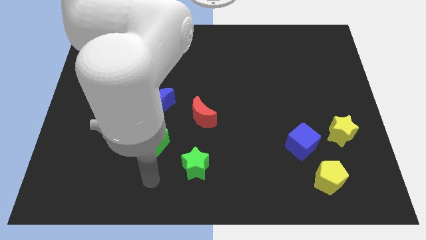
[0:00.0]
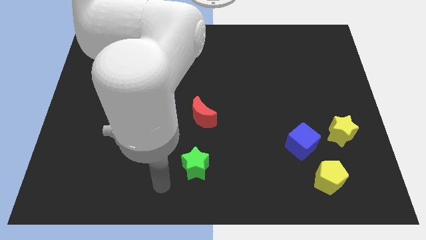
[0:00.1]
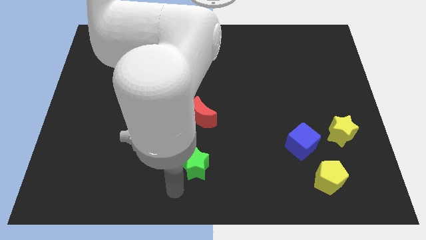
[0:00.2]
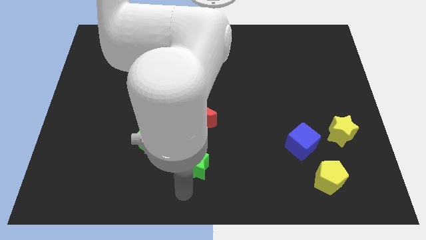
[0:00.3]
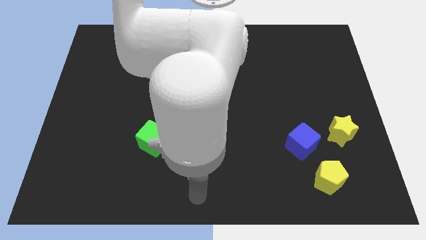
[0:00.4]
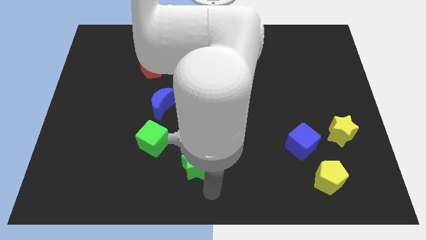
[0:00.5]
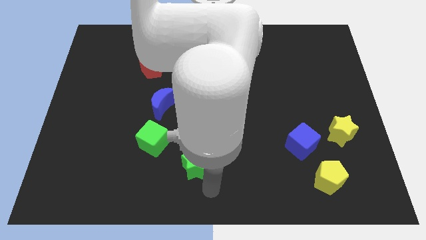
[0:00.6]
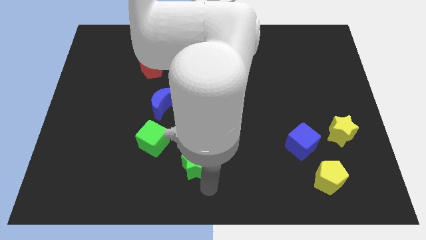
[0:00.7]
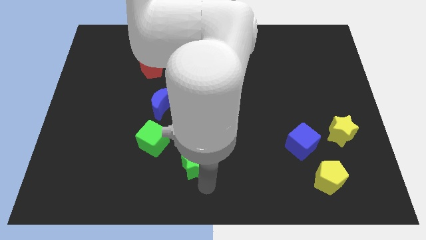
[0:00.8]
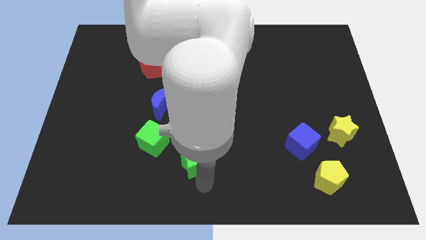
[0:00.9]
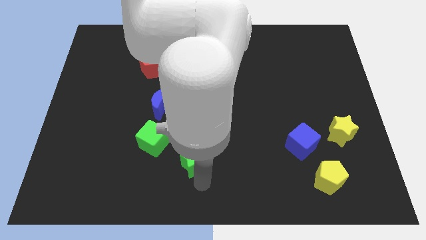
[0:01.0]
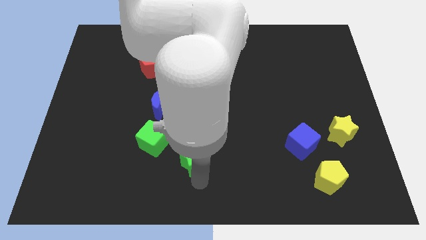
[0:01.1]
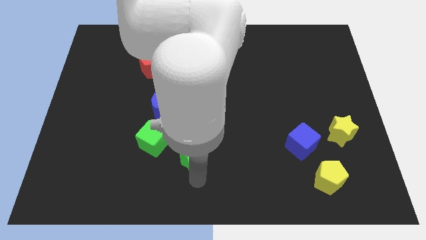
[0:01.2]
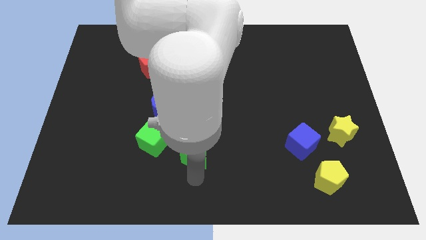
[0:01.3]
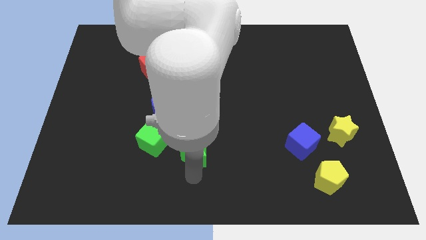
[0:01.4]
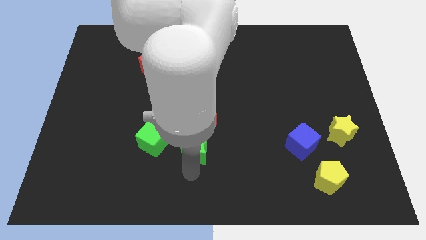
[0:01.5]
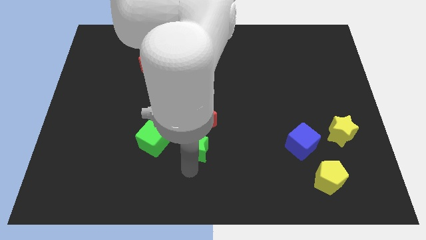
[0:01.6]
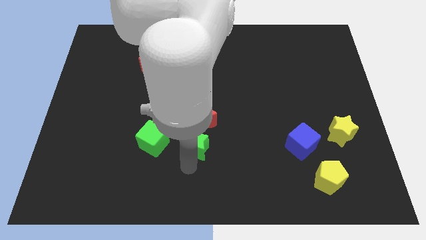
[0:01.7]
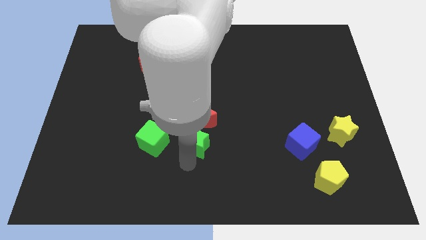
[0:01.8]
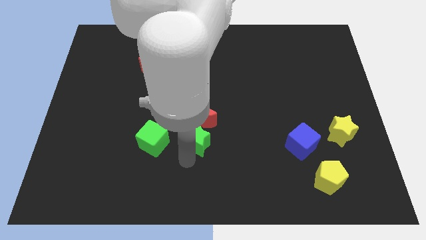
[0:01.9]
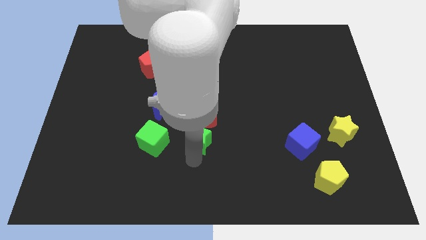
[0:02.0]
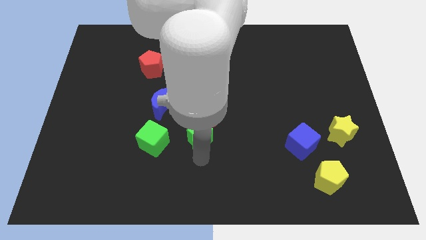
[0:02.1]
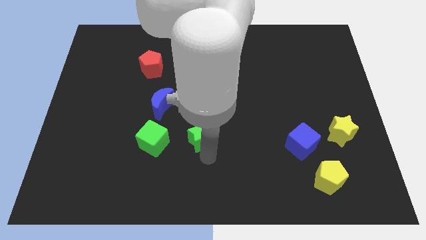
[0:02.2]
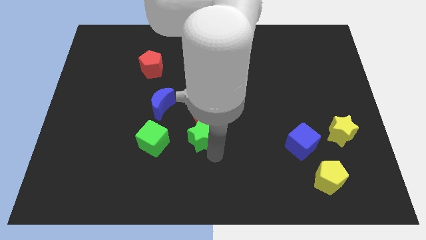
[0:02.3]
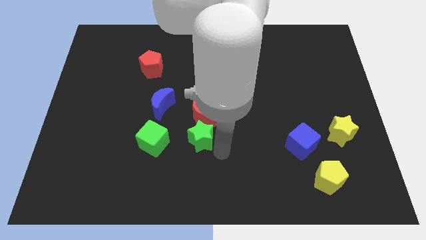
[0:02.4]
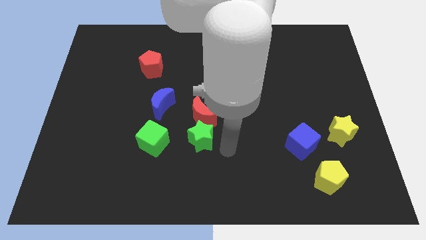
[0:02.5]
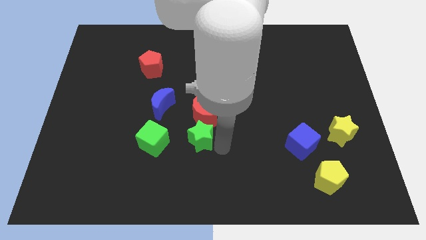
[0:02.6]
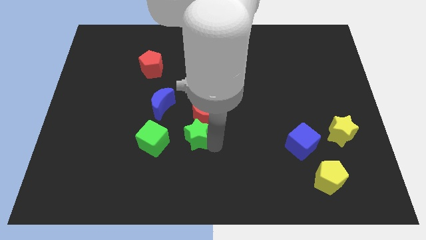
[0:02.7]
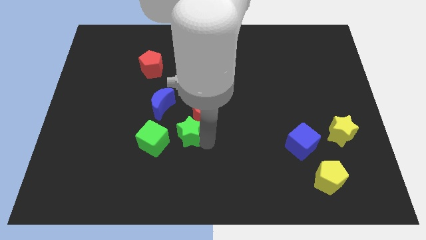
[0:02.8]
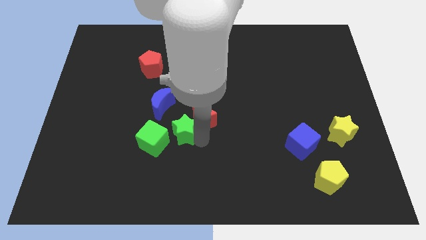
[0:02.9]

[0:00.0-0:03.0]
slightly slide the green star up and then to the left

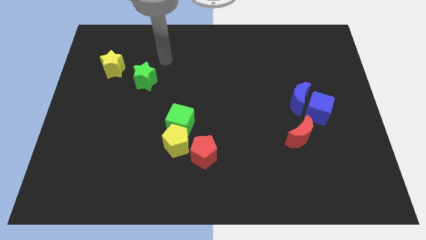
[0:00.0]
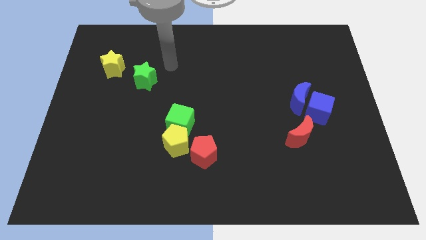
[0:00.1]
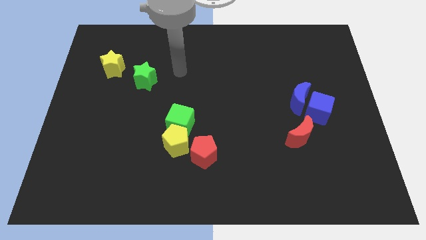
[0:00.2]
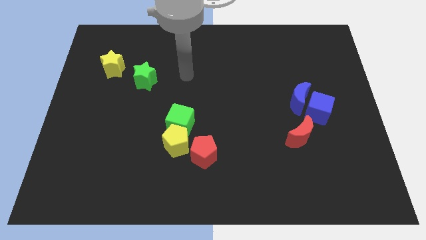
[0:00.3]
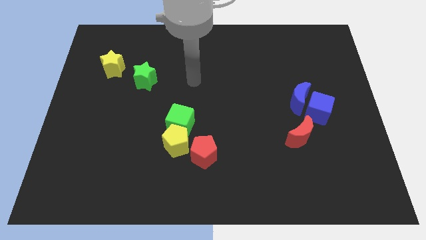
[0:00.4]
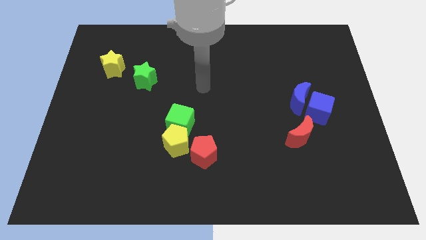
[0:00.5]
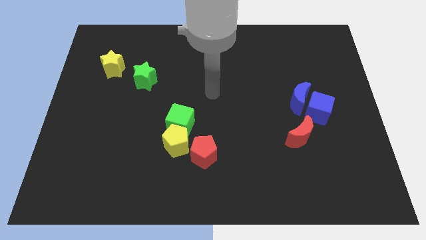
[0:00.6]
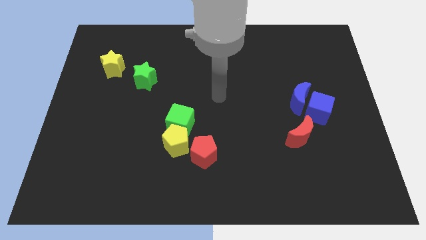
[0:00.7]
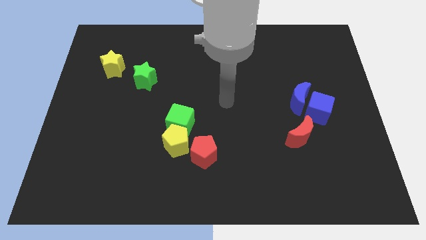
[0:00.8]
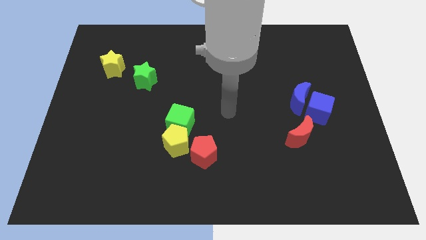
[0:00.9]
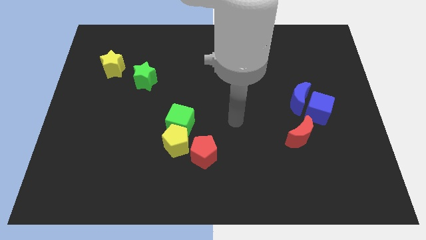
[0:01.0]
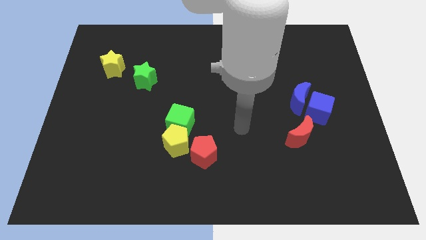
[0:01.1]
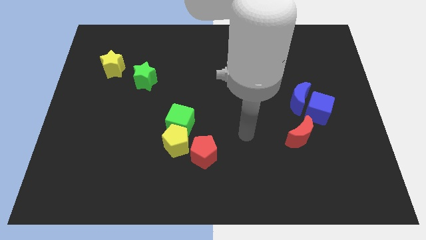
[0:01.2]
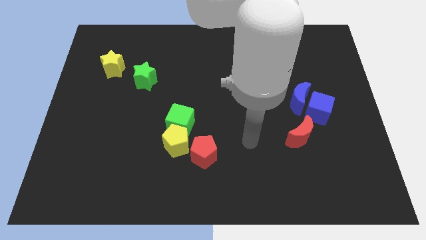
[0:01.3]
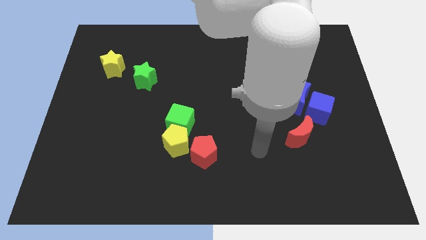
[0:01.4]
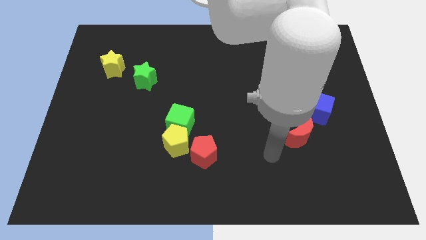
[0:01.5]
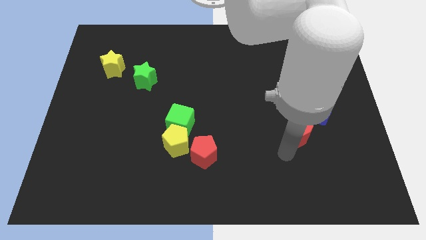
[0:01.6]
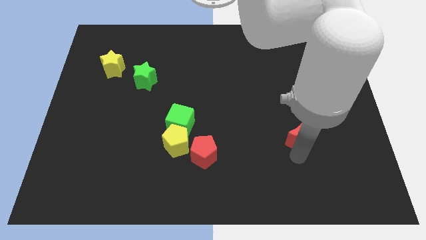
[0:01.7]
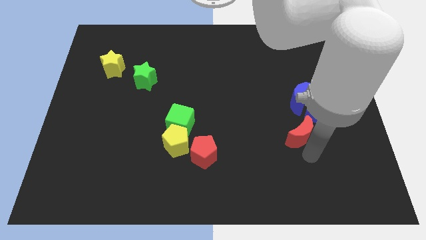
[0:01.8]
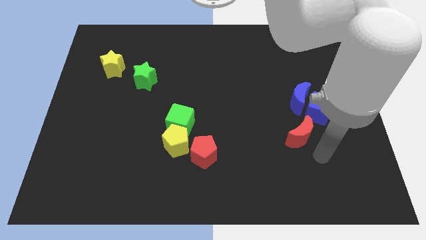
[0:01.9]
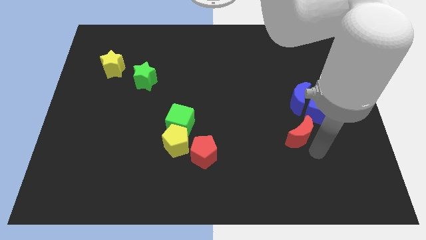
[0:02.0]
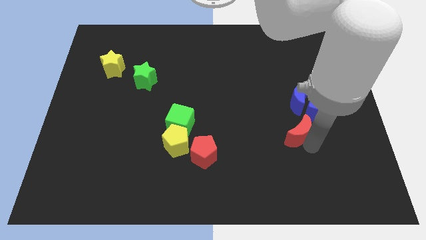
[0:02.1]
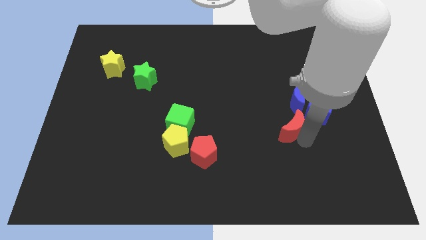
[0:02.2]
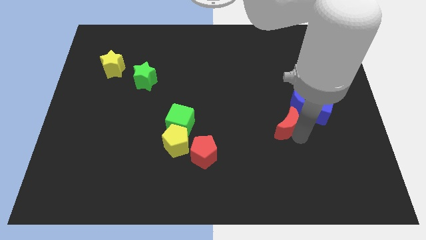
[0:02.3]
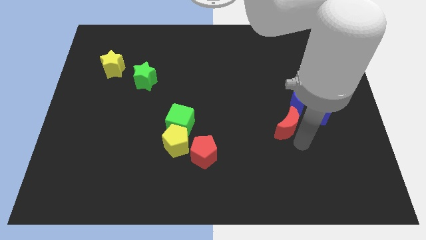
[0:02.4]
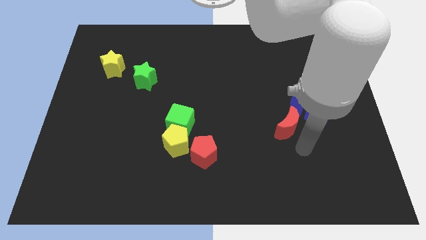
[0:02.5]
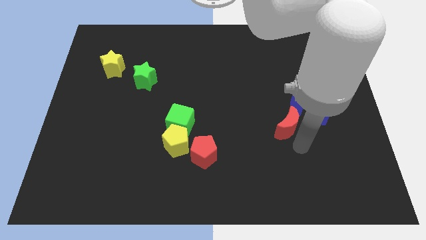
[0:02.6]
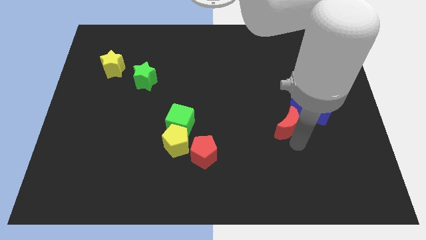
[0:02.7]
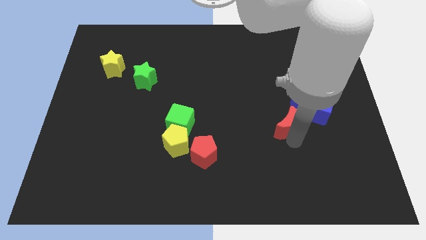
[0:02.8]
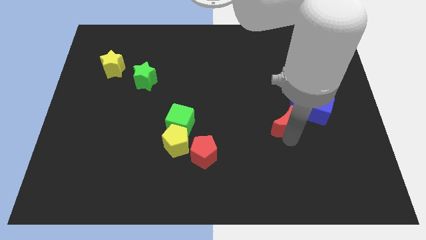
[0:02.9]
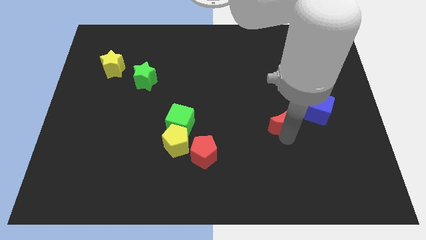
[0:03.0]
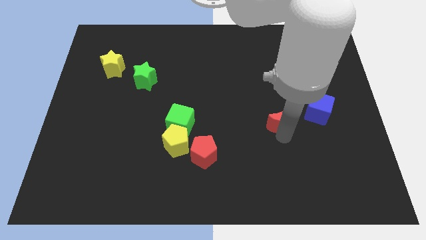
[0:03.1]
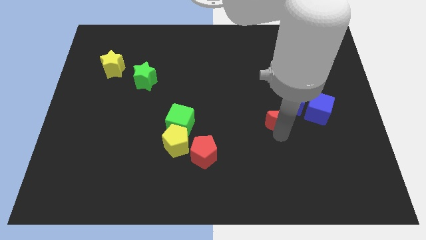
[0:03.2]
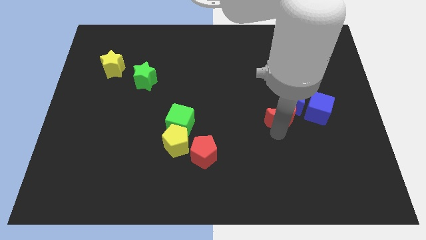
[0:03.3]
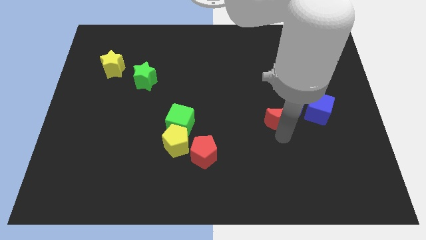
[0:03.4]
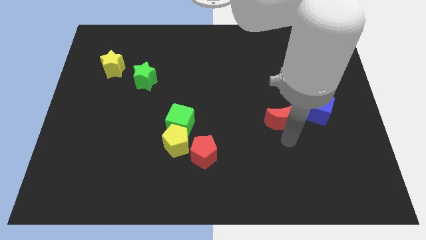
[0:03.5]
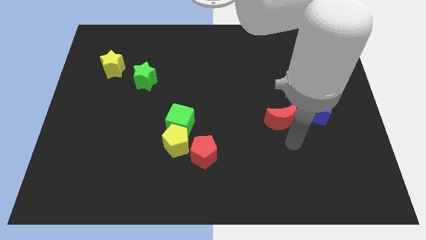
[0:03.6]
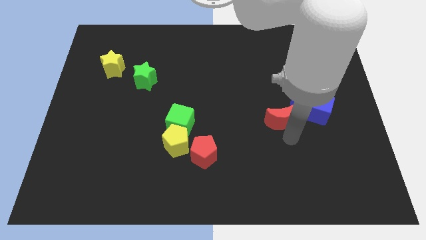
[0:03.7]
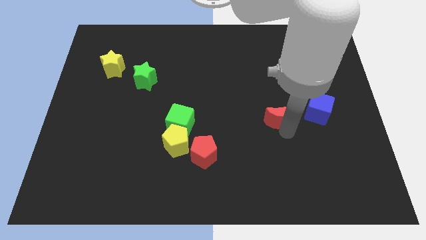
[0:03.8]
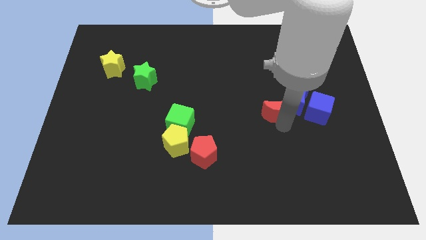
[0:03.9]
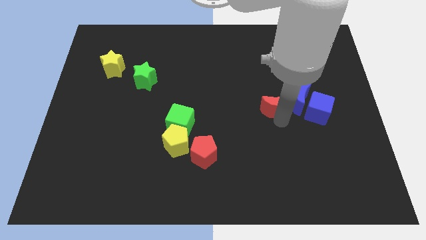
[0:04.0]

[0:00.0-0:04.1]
slightly move the red moon up

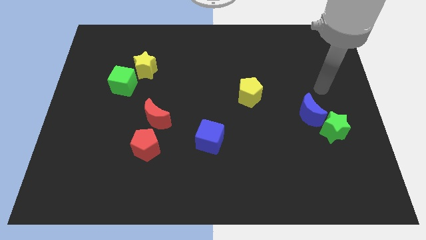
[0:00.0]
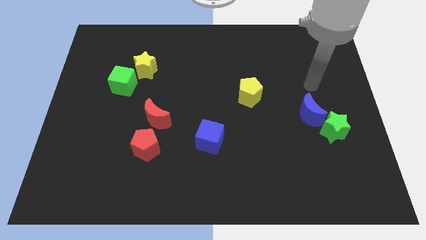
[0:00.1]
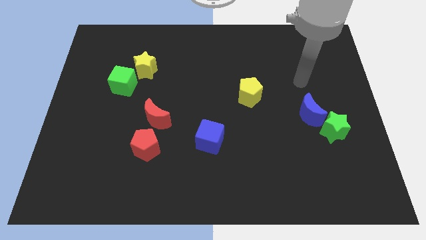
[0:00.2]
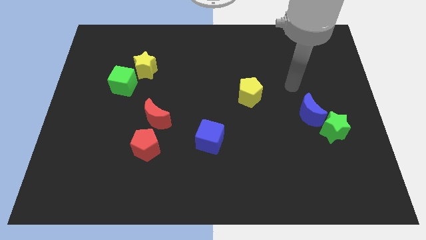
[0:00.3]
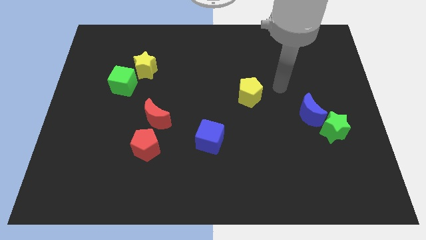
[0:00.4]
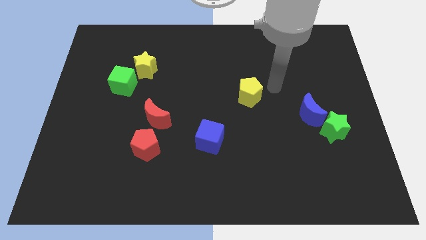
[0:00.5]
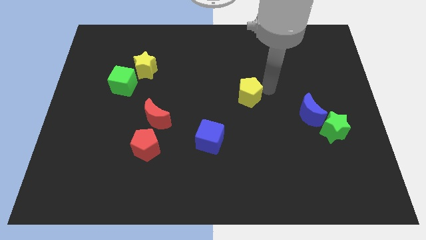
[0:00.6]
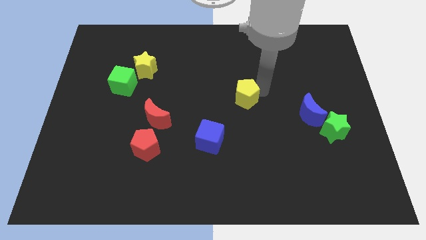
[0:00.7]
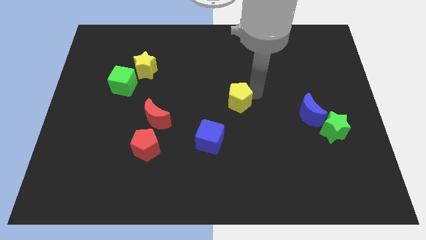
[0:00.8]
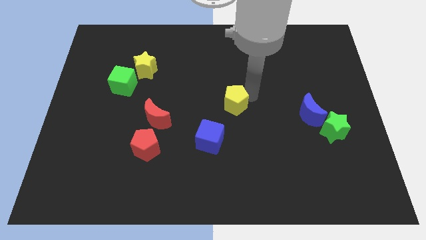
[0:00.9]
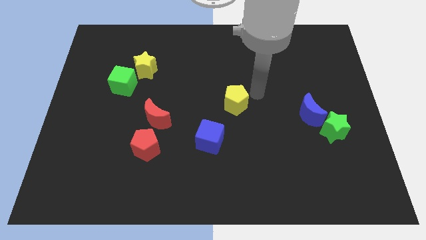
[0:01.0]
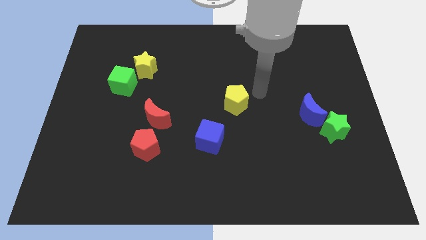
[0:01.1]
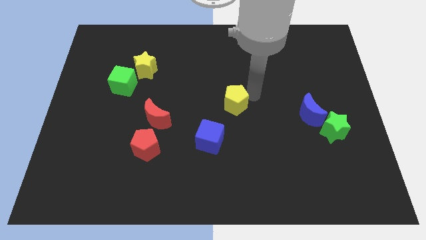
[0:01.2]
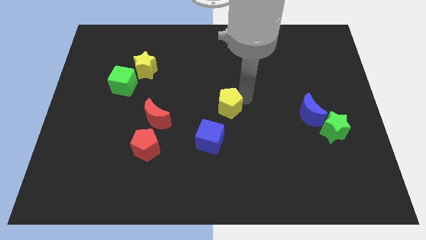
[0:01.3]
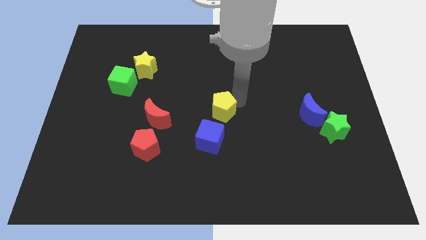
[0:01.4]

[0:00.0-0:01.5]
push the yellow pentagon slightly down and left
